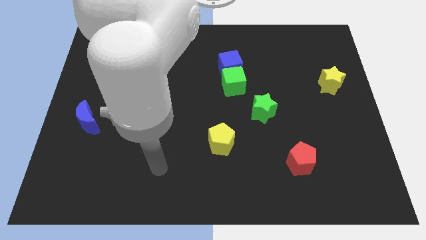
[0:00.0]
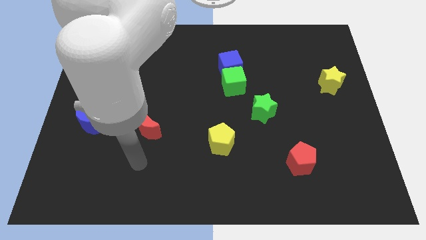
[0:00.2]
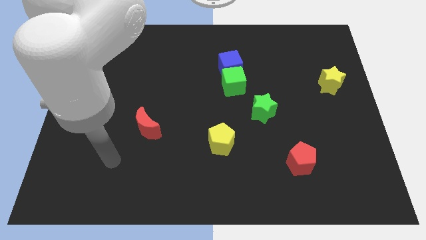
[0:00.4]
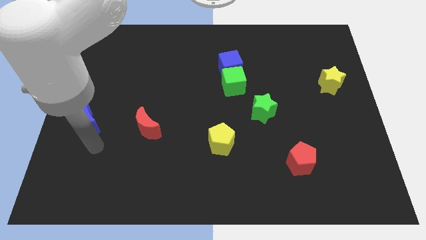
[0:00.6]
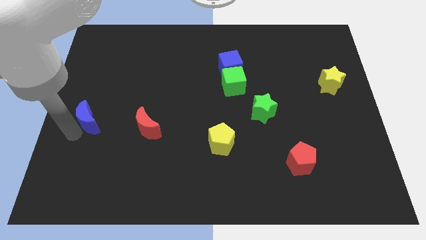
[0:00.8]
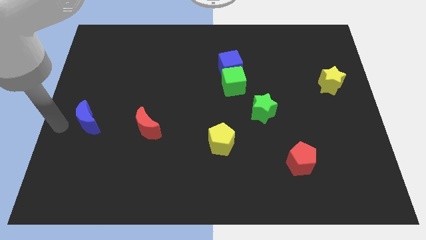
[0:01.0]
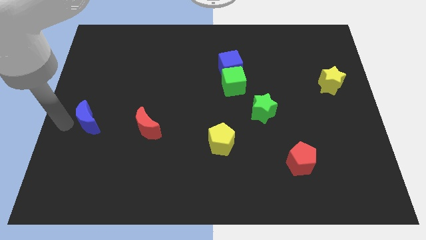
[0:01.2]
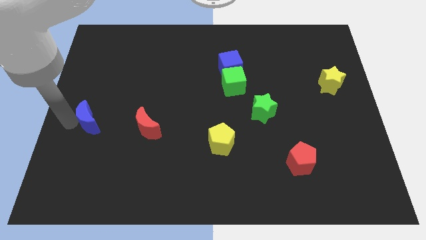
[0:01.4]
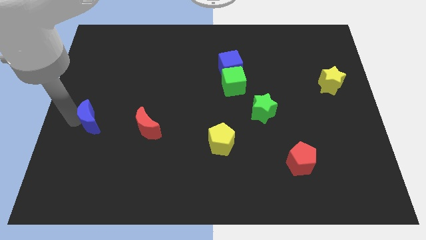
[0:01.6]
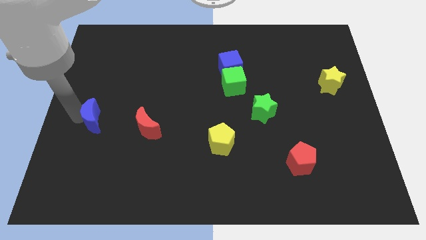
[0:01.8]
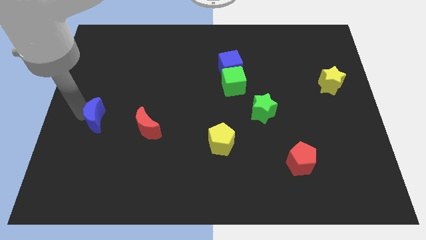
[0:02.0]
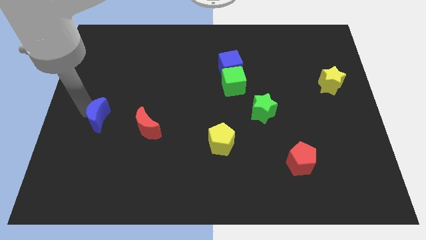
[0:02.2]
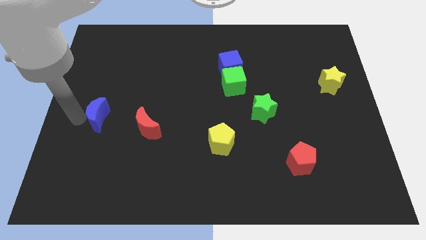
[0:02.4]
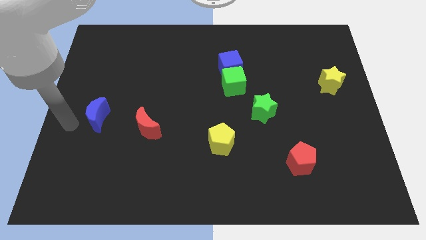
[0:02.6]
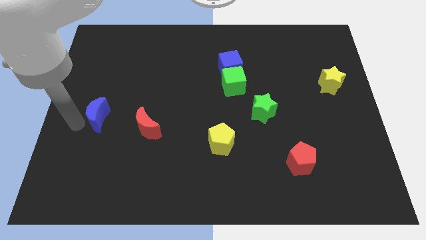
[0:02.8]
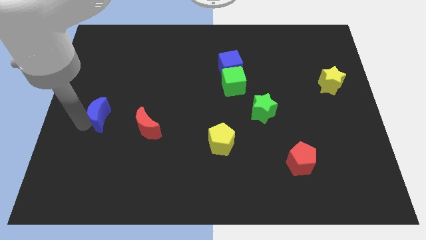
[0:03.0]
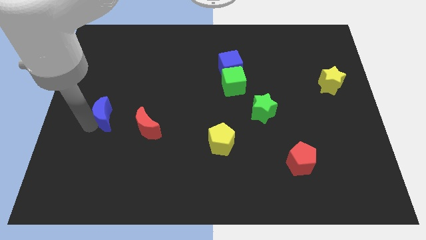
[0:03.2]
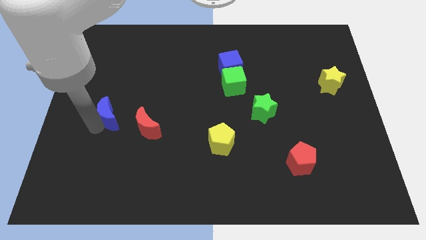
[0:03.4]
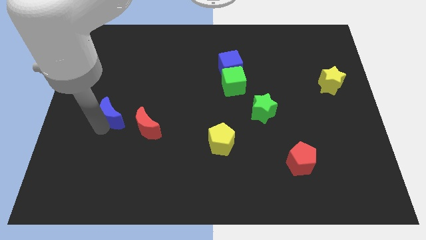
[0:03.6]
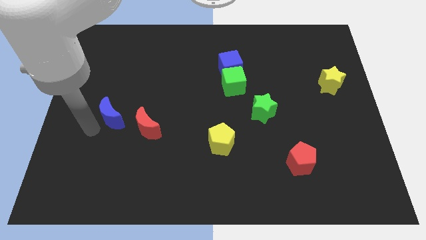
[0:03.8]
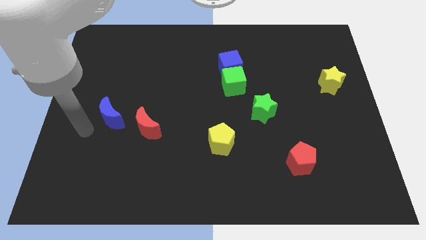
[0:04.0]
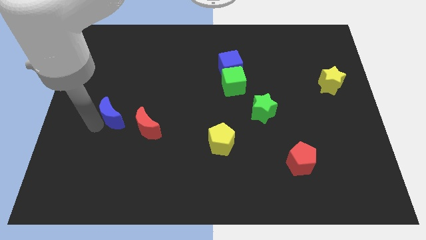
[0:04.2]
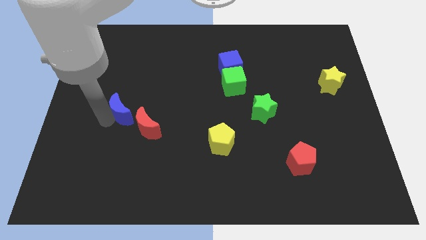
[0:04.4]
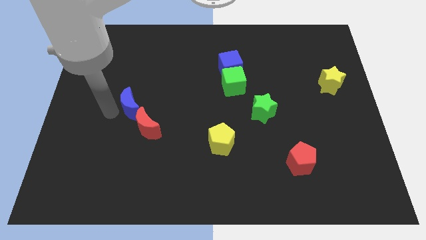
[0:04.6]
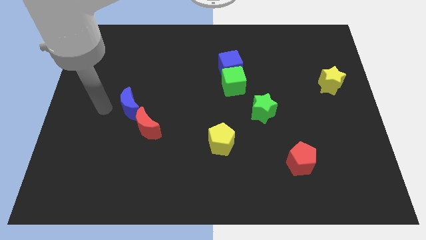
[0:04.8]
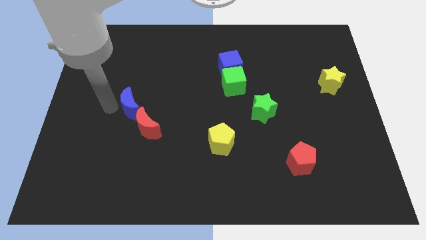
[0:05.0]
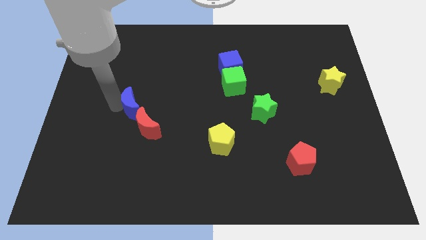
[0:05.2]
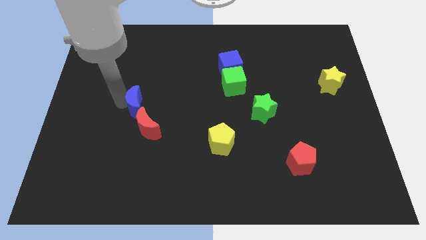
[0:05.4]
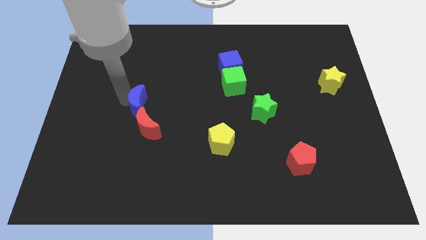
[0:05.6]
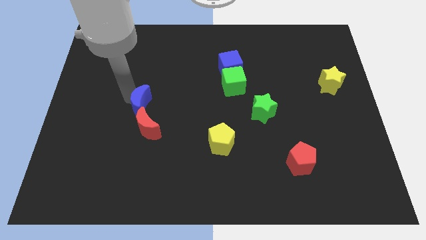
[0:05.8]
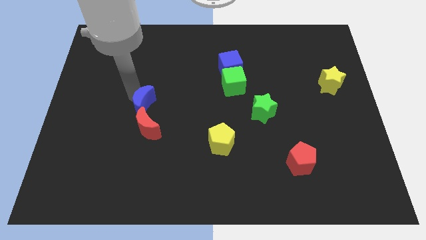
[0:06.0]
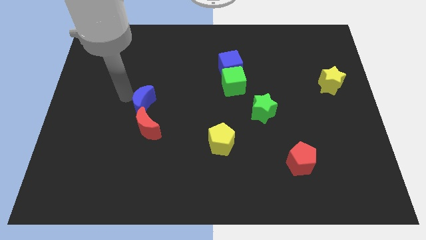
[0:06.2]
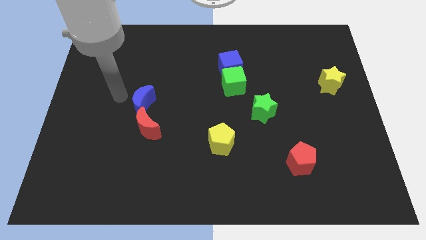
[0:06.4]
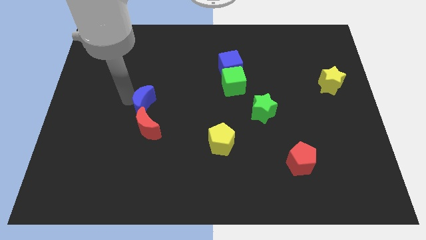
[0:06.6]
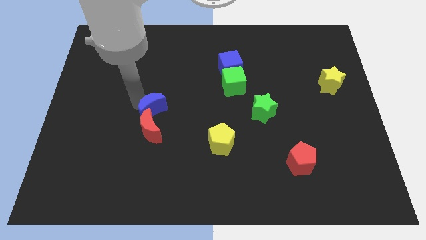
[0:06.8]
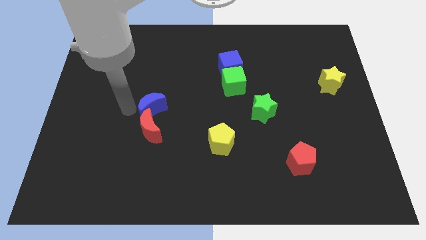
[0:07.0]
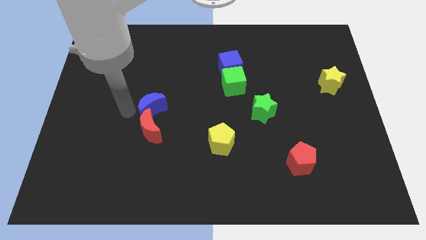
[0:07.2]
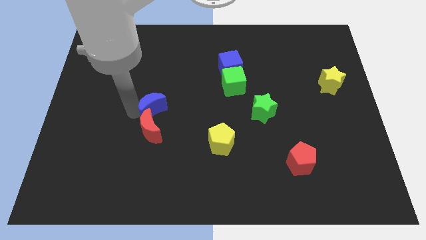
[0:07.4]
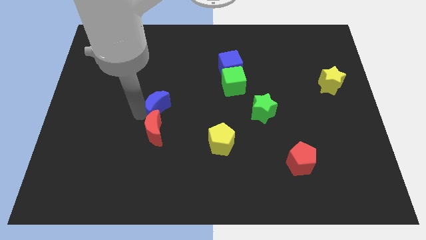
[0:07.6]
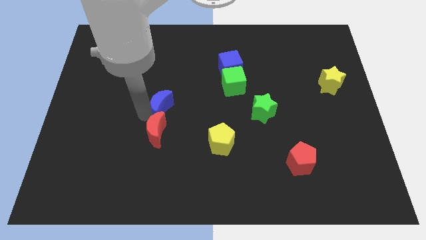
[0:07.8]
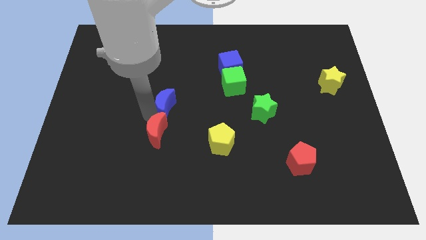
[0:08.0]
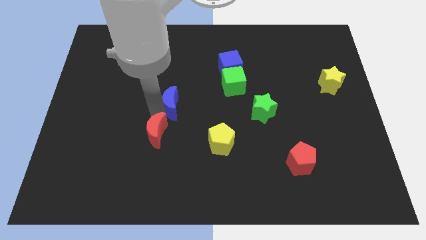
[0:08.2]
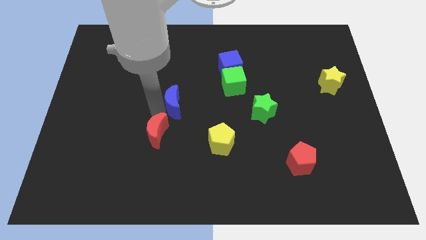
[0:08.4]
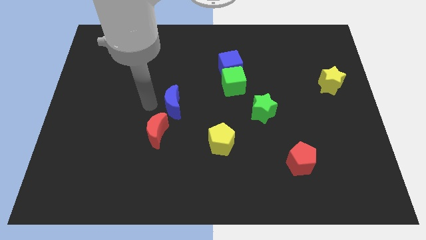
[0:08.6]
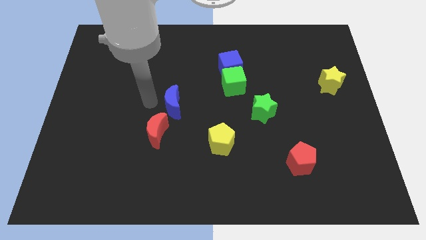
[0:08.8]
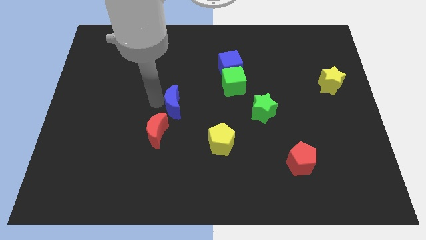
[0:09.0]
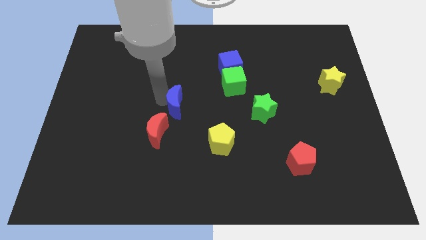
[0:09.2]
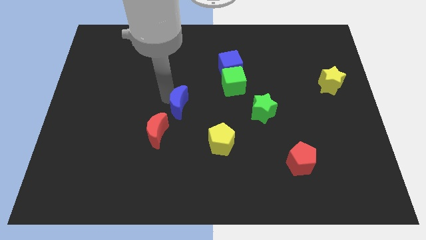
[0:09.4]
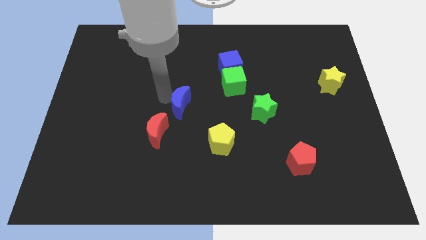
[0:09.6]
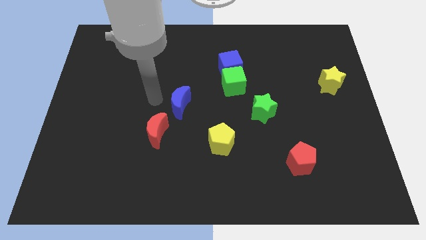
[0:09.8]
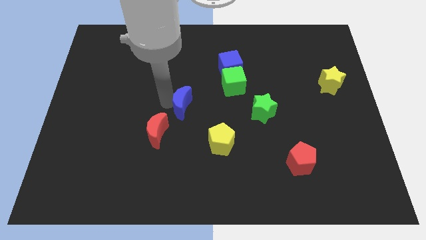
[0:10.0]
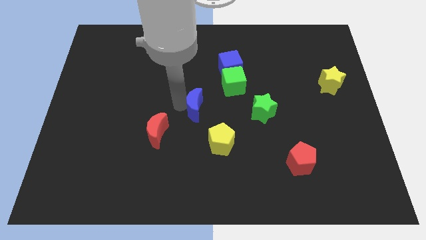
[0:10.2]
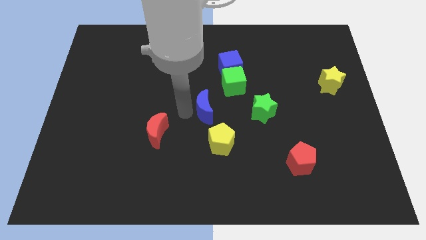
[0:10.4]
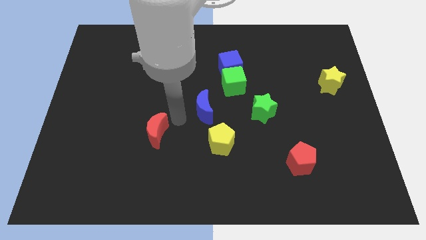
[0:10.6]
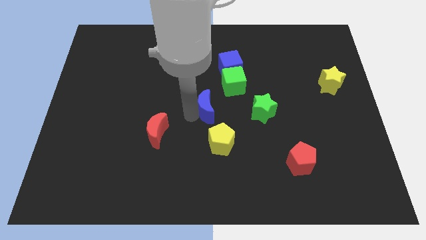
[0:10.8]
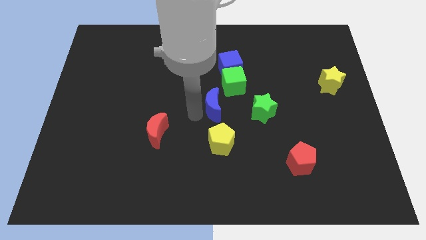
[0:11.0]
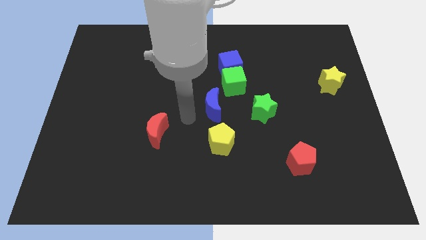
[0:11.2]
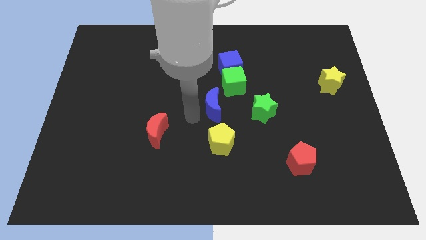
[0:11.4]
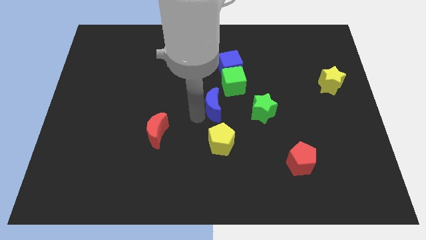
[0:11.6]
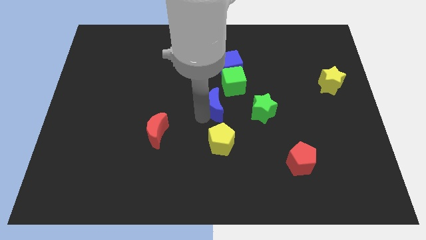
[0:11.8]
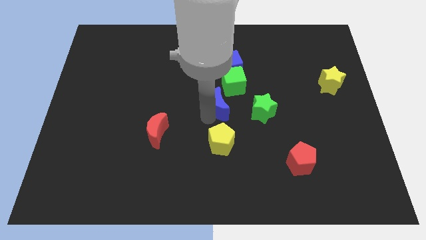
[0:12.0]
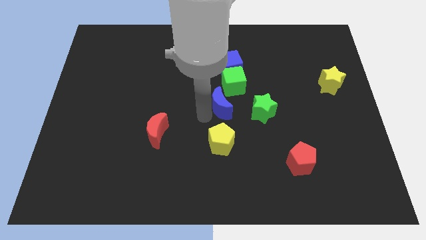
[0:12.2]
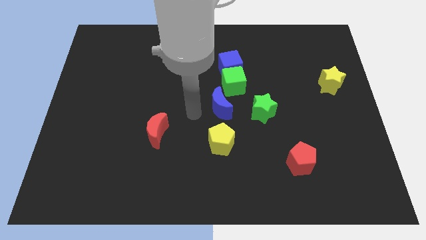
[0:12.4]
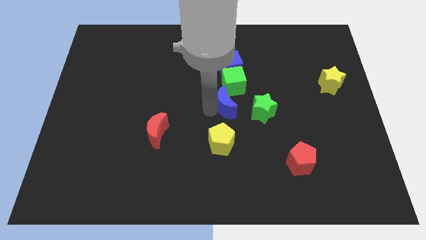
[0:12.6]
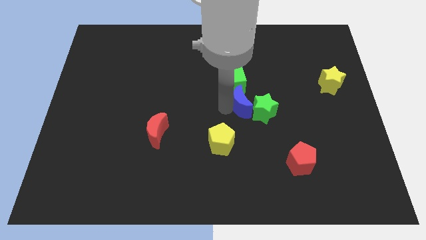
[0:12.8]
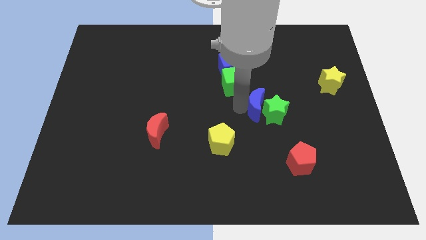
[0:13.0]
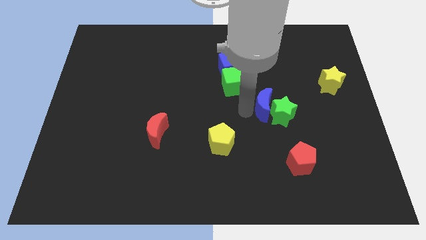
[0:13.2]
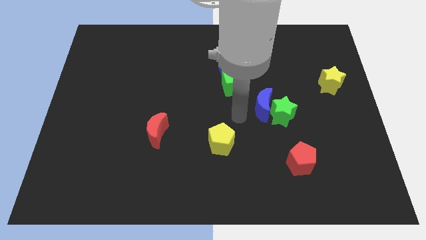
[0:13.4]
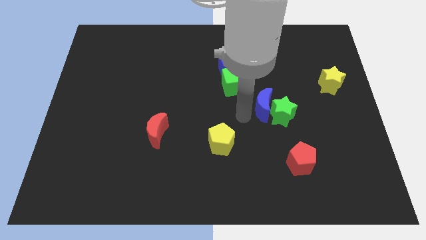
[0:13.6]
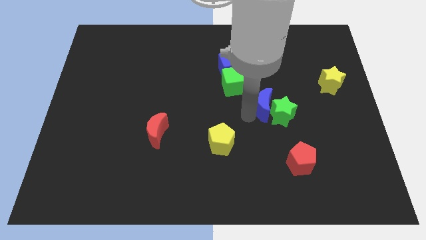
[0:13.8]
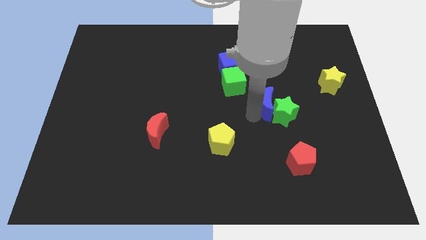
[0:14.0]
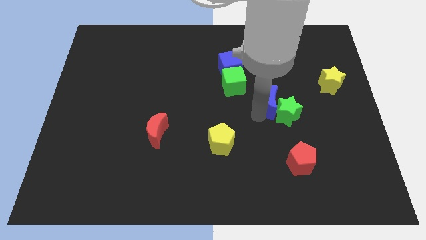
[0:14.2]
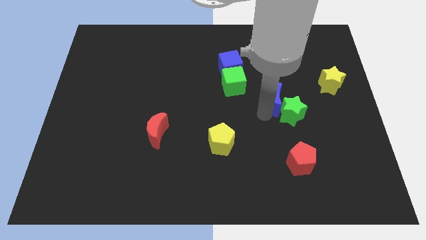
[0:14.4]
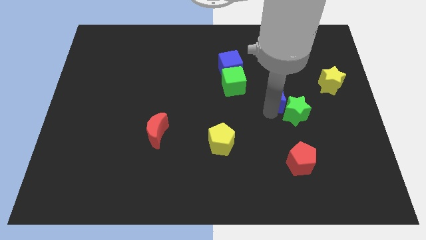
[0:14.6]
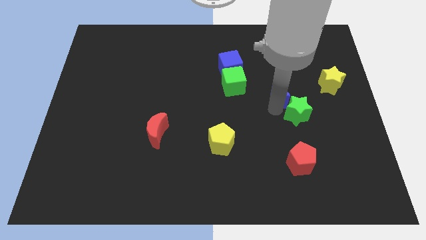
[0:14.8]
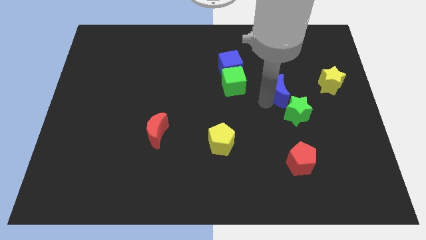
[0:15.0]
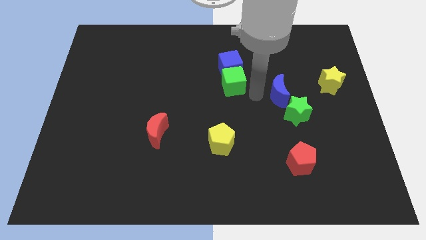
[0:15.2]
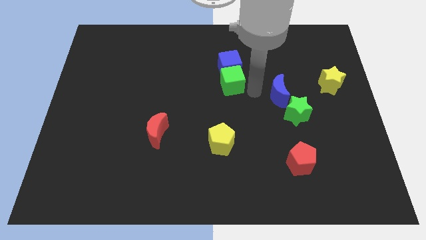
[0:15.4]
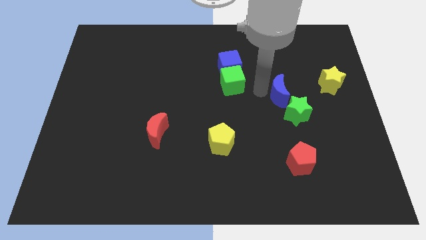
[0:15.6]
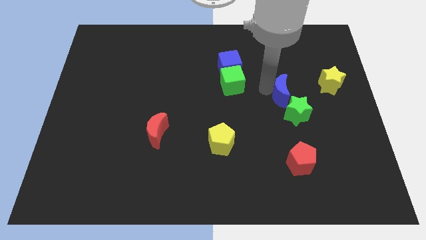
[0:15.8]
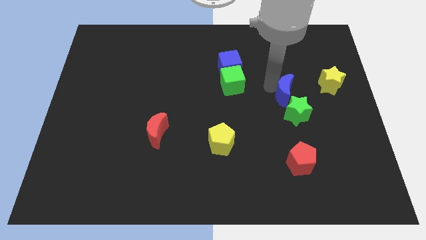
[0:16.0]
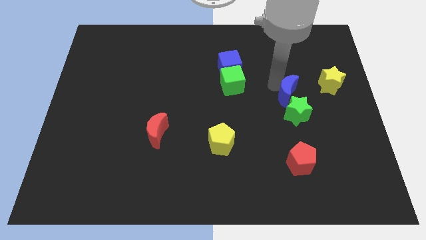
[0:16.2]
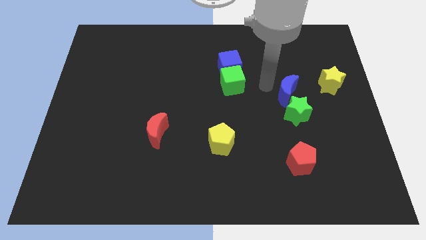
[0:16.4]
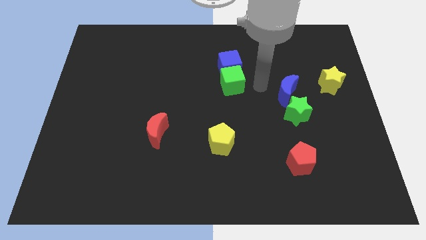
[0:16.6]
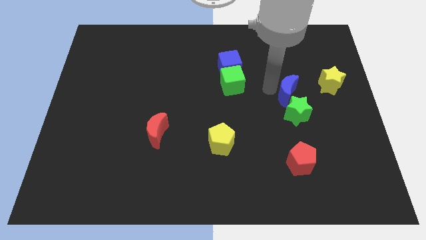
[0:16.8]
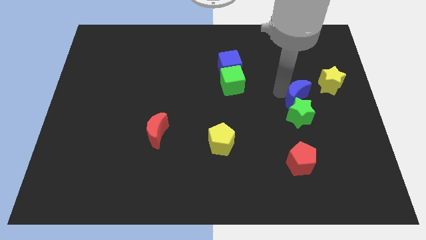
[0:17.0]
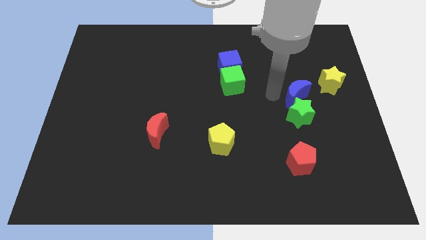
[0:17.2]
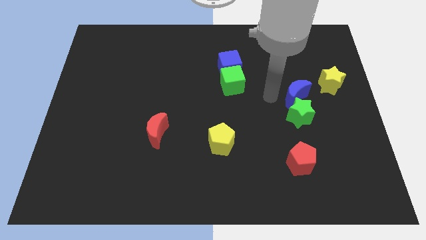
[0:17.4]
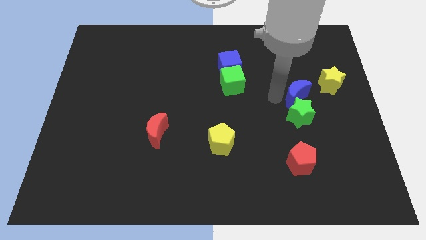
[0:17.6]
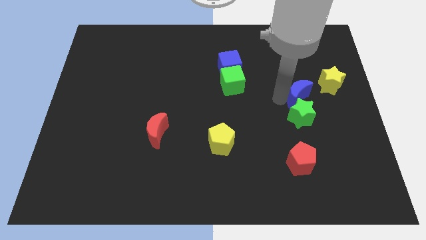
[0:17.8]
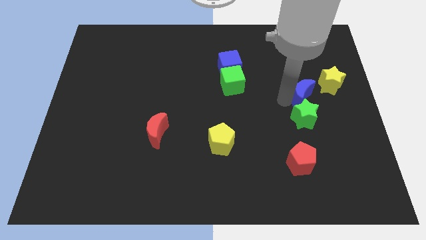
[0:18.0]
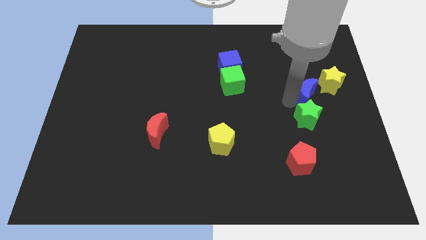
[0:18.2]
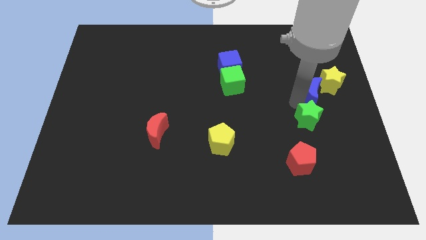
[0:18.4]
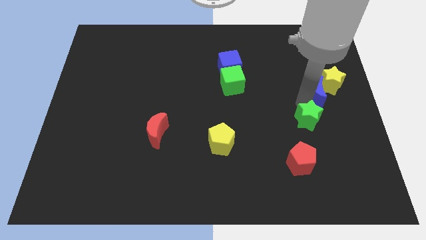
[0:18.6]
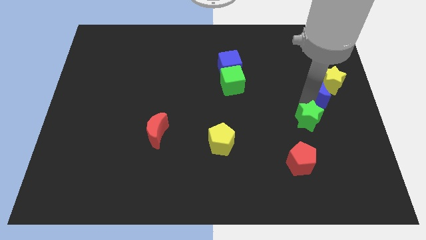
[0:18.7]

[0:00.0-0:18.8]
put the blue moon to the right side
